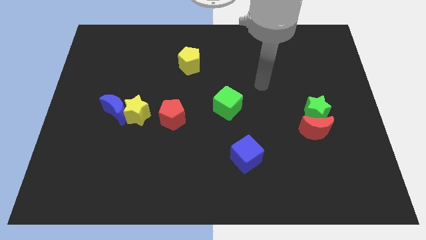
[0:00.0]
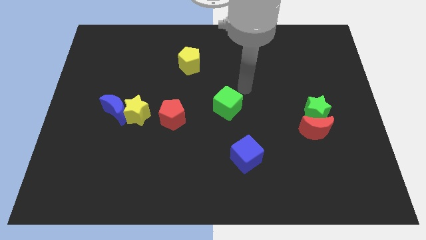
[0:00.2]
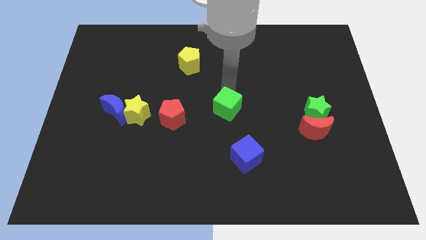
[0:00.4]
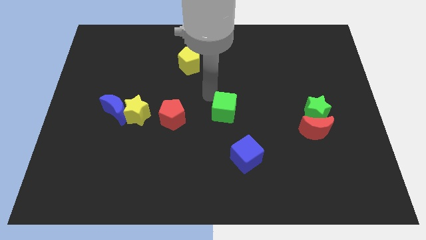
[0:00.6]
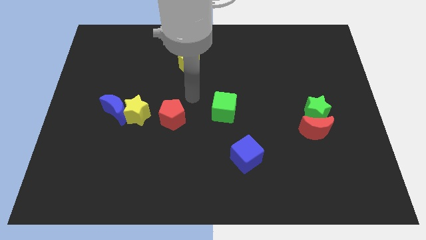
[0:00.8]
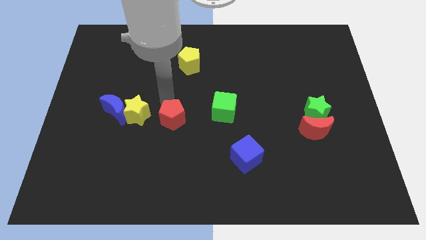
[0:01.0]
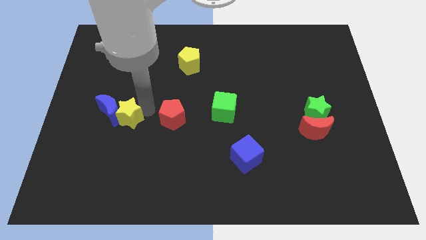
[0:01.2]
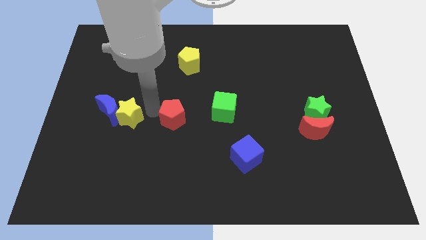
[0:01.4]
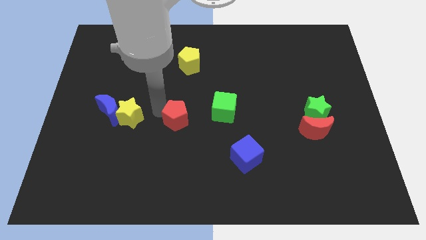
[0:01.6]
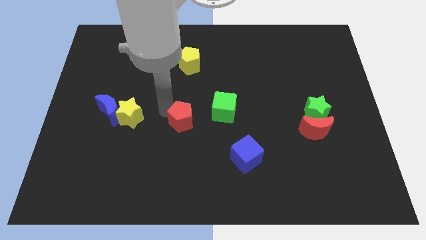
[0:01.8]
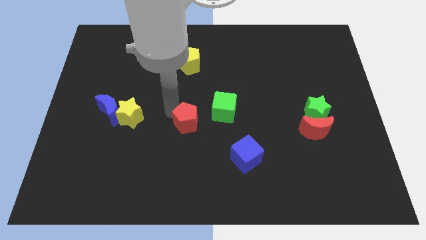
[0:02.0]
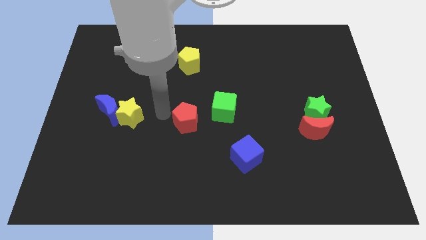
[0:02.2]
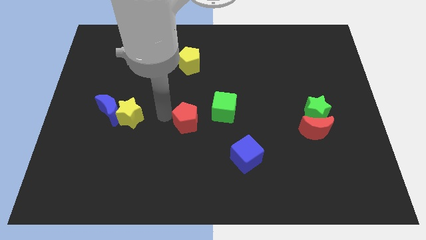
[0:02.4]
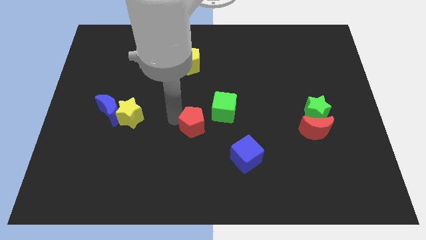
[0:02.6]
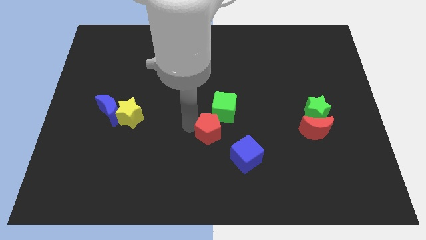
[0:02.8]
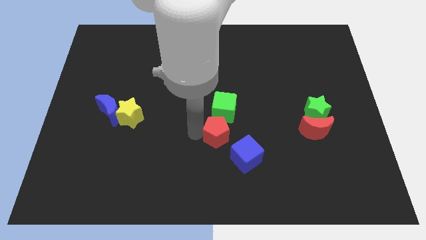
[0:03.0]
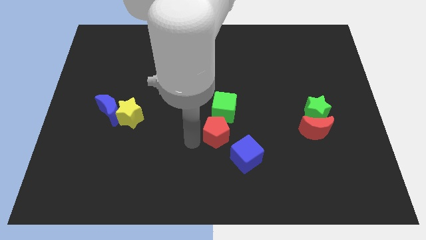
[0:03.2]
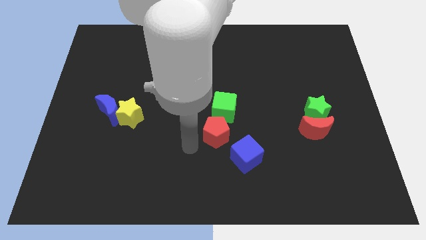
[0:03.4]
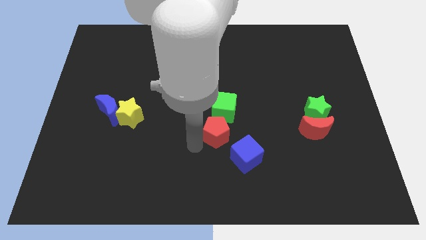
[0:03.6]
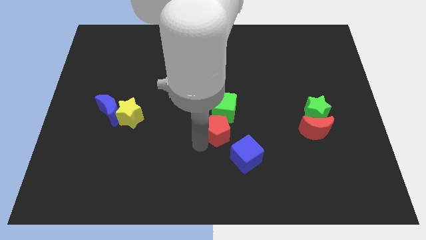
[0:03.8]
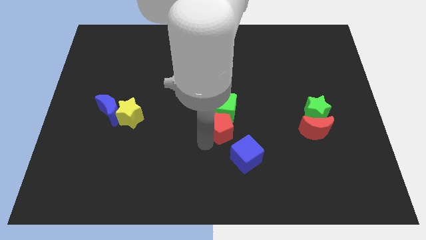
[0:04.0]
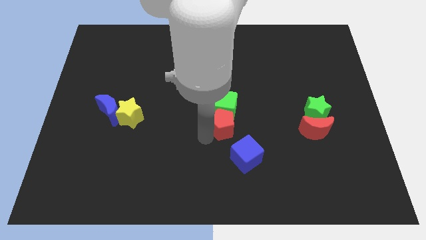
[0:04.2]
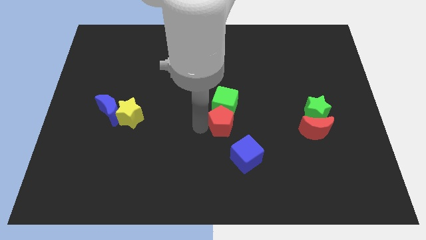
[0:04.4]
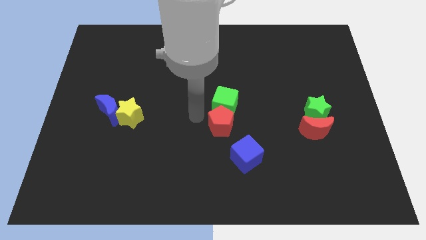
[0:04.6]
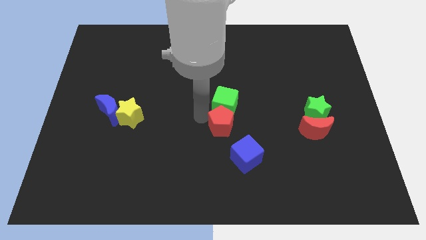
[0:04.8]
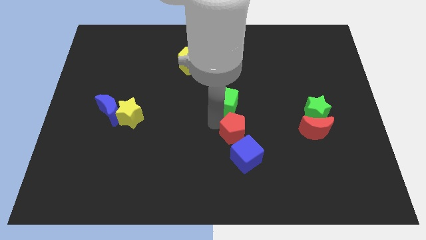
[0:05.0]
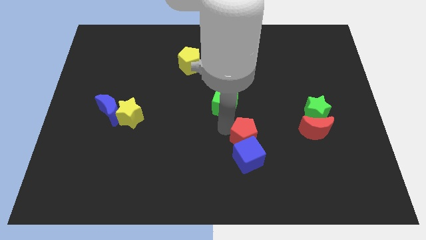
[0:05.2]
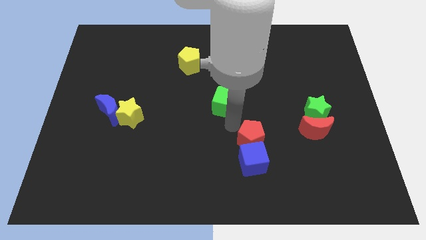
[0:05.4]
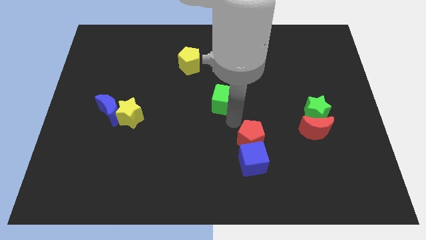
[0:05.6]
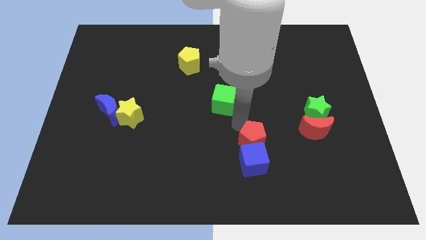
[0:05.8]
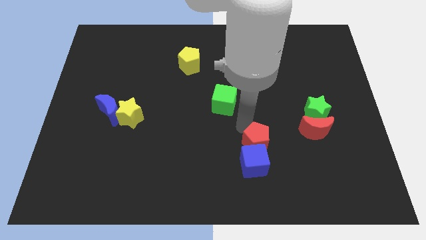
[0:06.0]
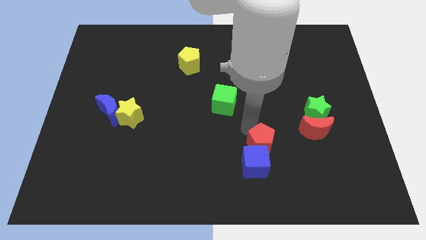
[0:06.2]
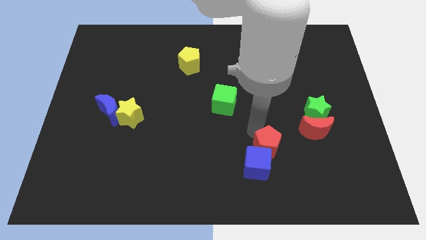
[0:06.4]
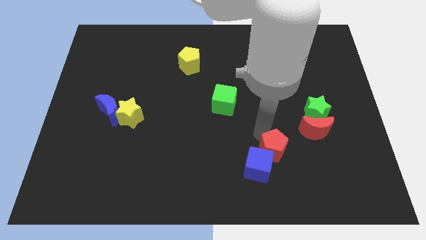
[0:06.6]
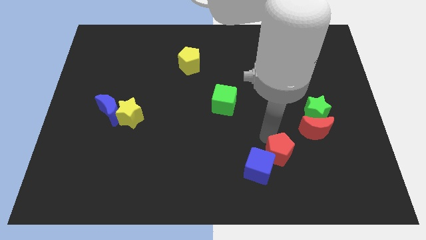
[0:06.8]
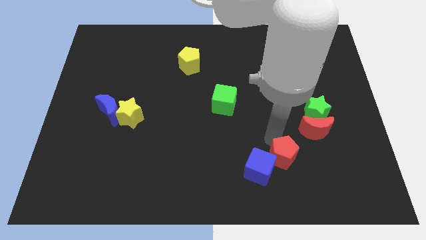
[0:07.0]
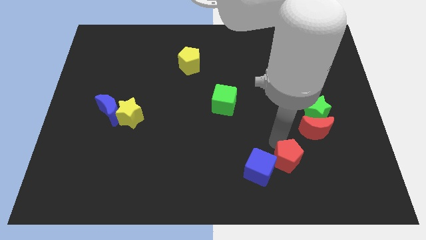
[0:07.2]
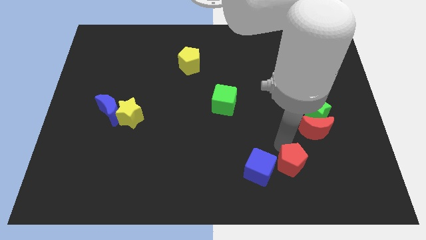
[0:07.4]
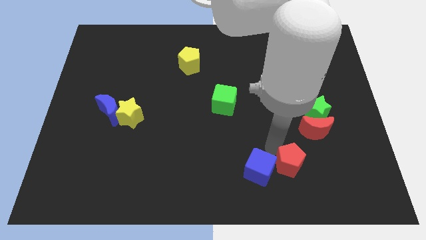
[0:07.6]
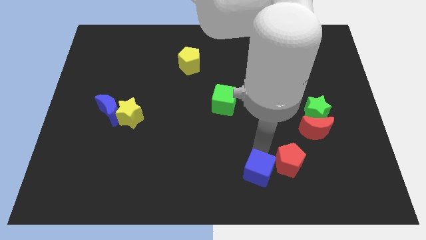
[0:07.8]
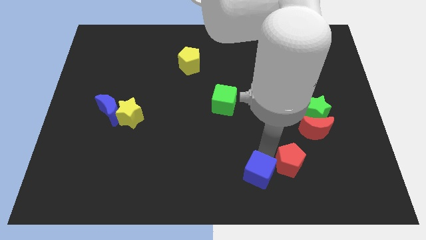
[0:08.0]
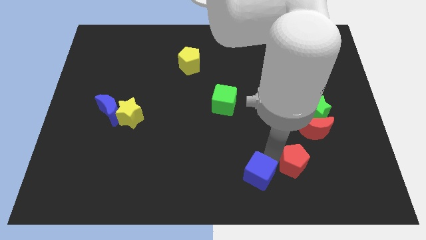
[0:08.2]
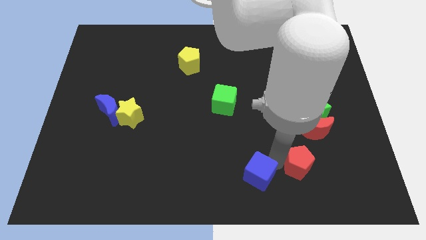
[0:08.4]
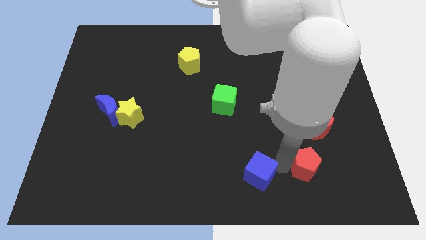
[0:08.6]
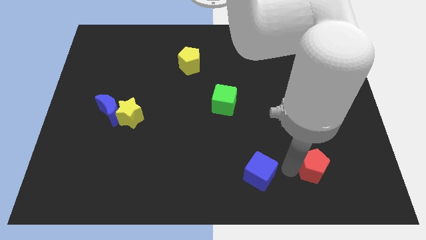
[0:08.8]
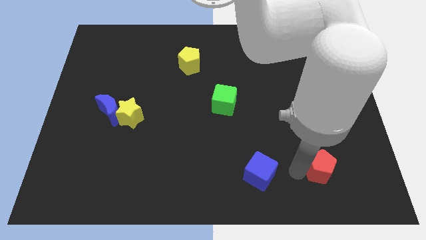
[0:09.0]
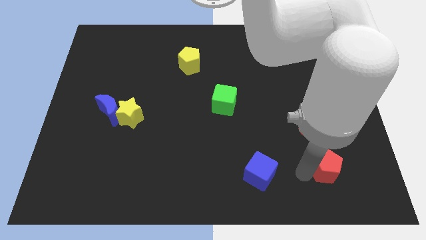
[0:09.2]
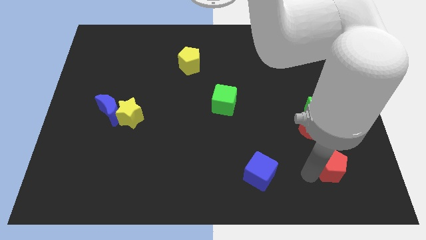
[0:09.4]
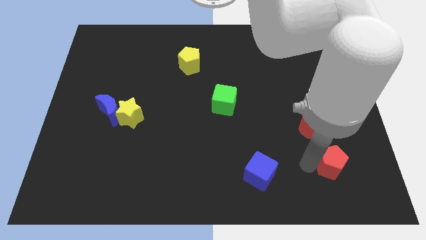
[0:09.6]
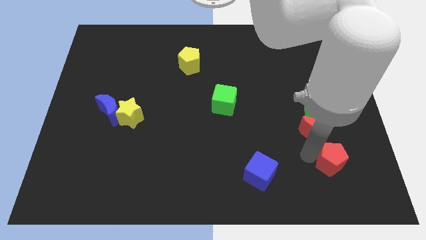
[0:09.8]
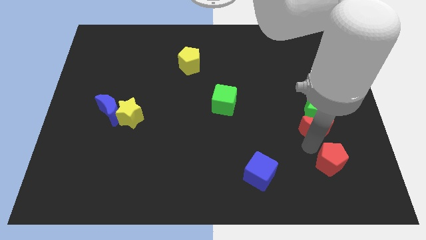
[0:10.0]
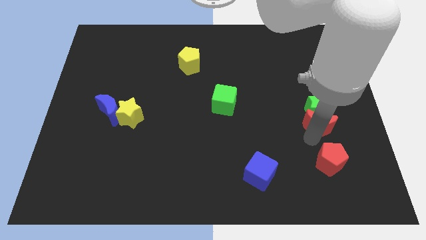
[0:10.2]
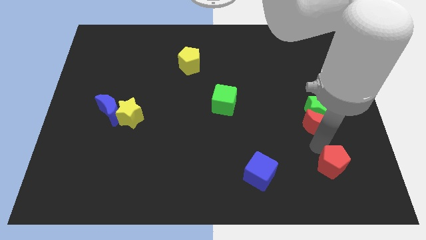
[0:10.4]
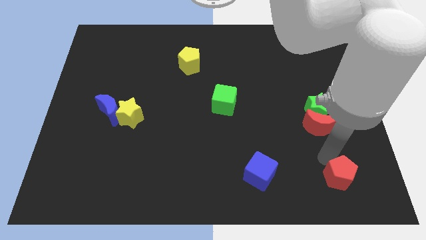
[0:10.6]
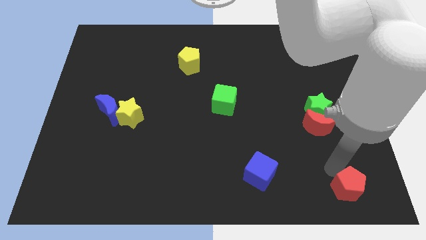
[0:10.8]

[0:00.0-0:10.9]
push the red pentagon to the bottom right of the board

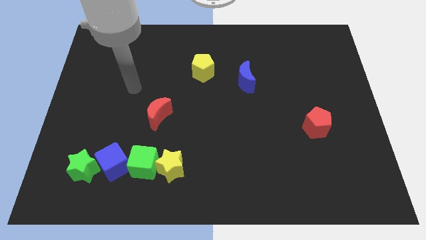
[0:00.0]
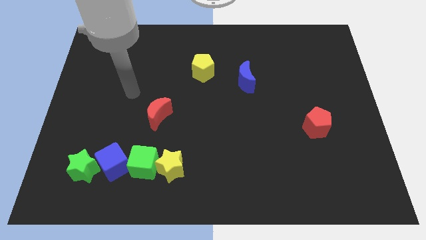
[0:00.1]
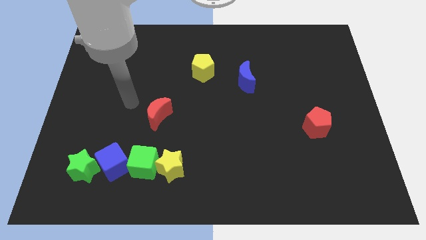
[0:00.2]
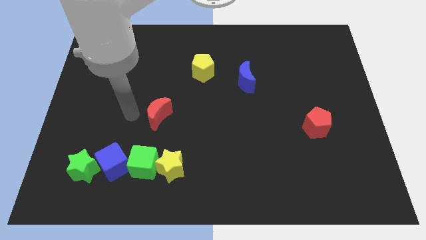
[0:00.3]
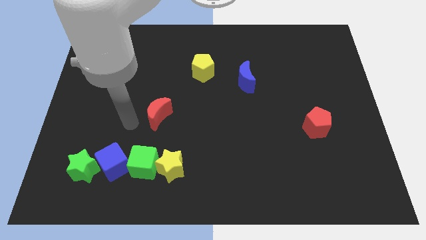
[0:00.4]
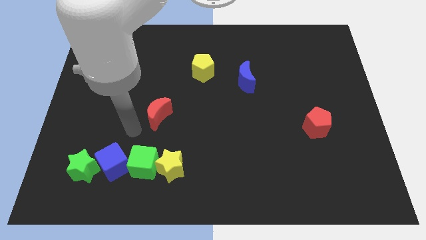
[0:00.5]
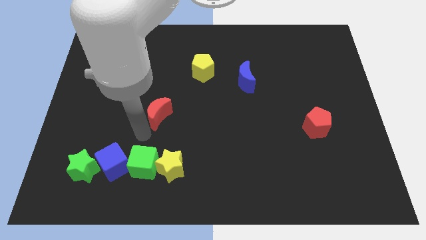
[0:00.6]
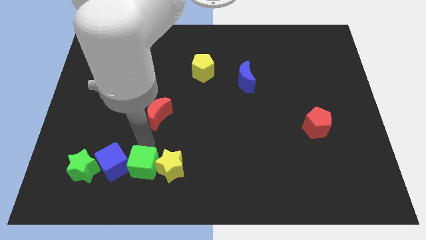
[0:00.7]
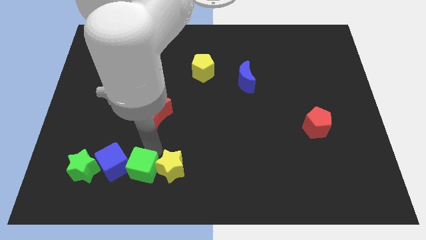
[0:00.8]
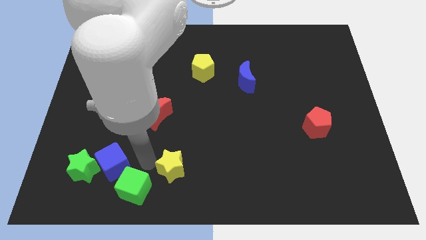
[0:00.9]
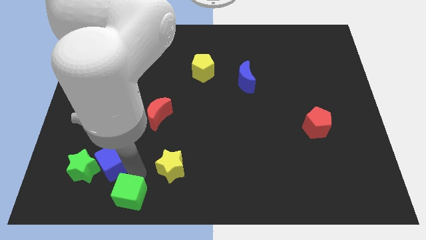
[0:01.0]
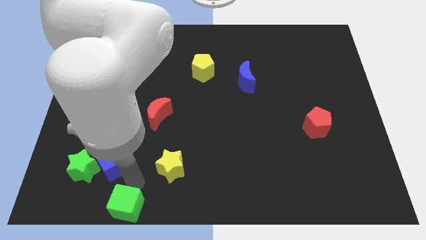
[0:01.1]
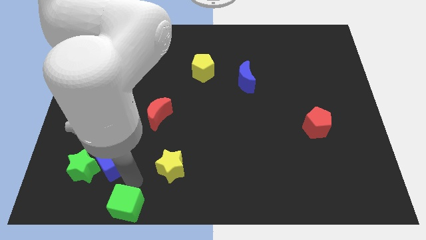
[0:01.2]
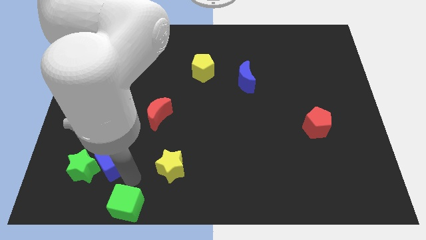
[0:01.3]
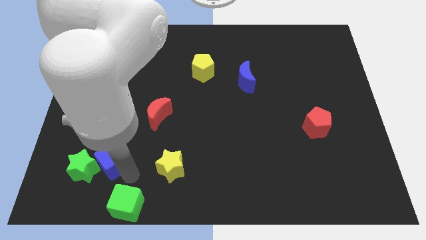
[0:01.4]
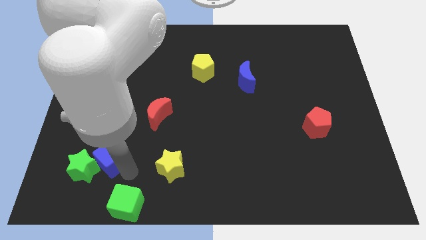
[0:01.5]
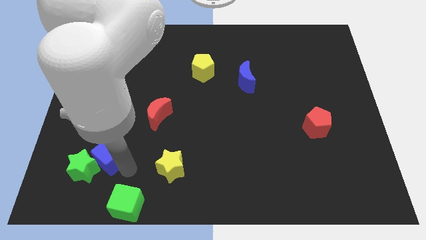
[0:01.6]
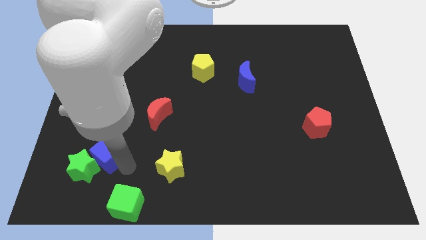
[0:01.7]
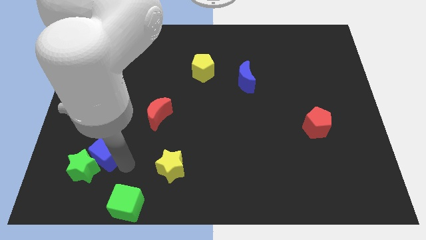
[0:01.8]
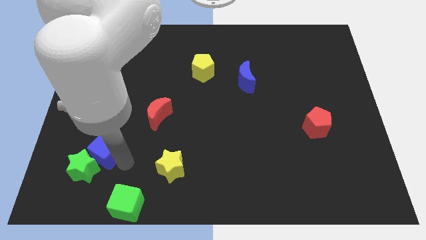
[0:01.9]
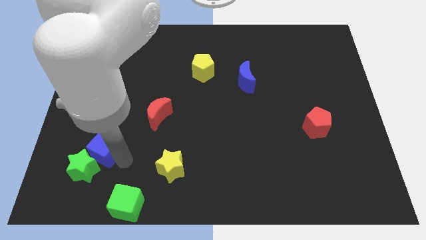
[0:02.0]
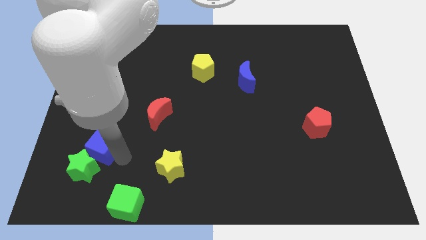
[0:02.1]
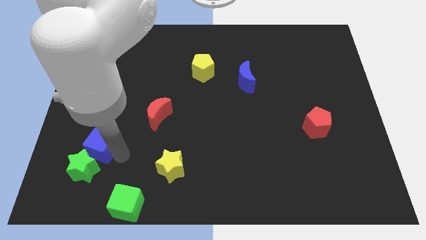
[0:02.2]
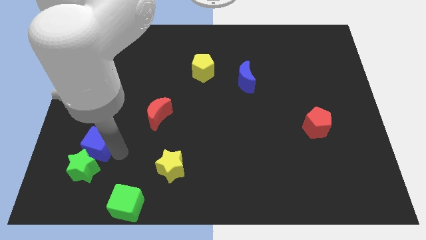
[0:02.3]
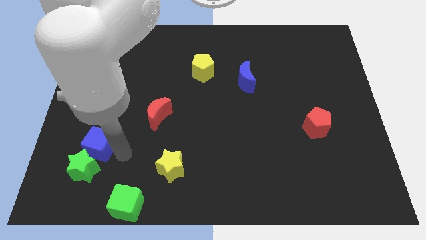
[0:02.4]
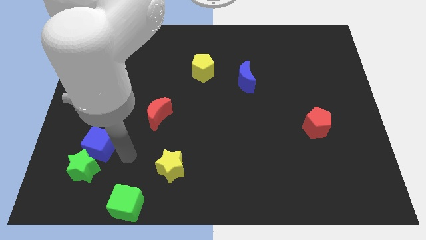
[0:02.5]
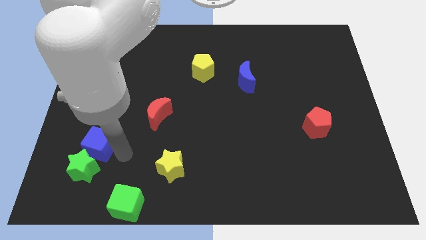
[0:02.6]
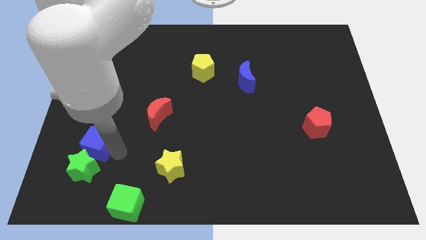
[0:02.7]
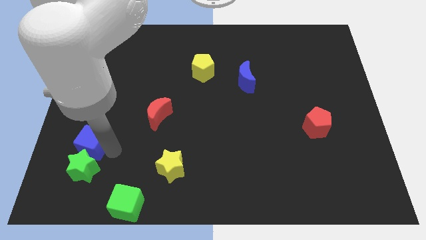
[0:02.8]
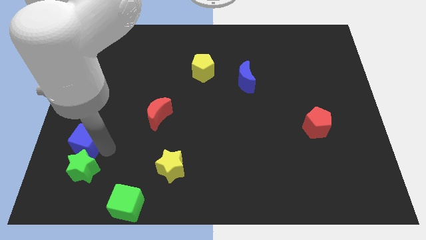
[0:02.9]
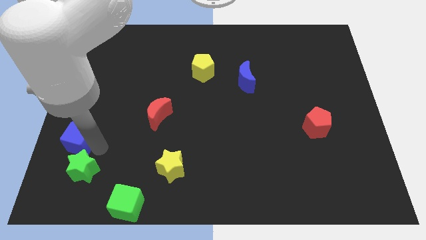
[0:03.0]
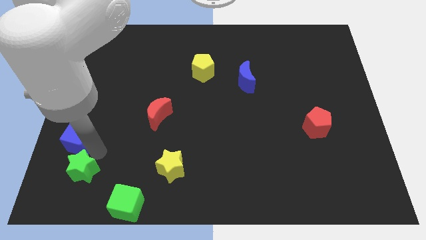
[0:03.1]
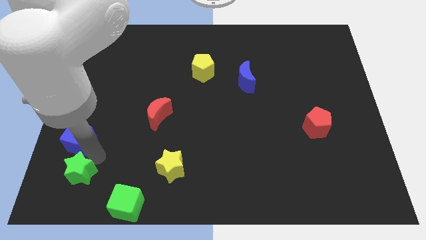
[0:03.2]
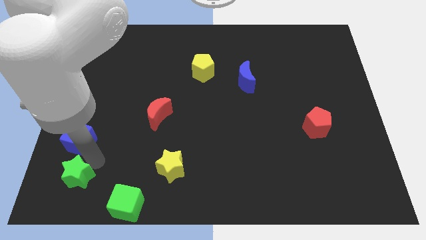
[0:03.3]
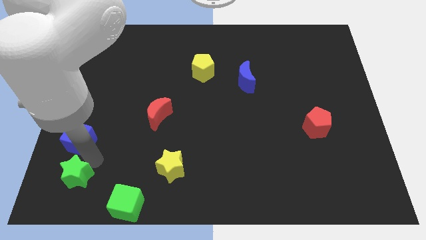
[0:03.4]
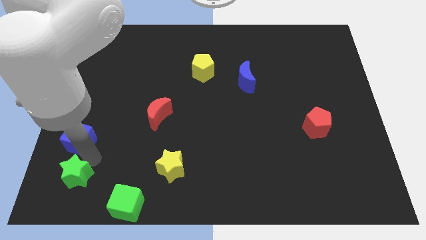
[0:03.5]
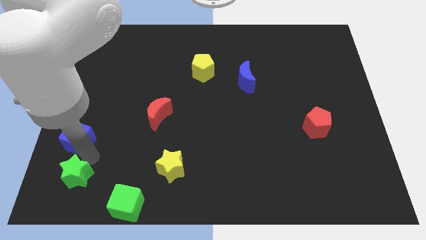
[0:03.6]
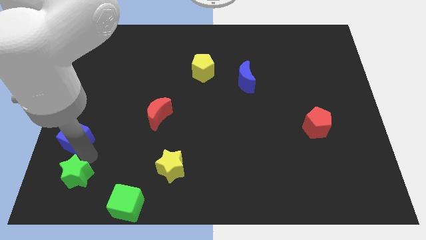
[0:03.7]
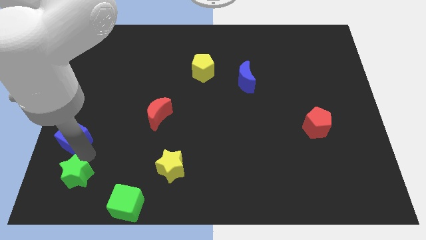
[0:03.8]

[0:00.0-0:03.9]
push the blue cube to the left side of the board
